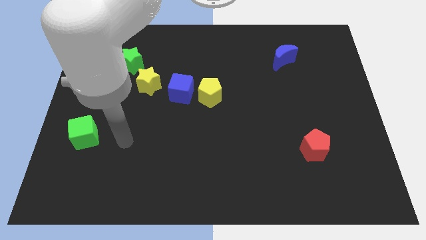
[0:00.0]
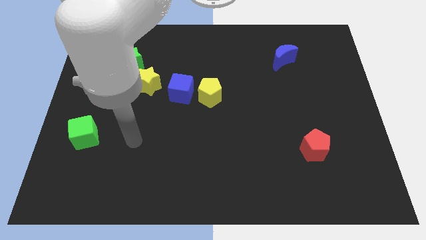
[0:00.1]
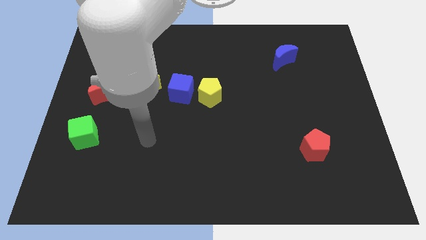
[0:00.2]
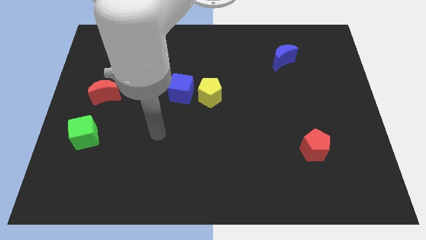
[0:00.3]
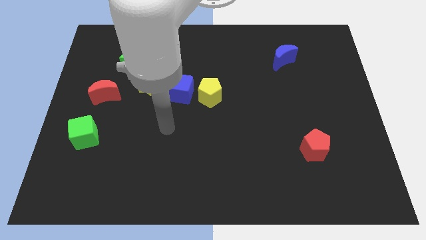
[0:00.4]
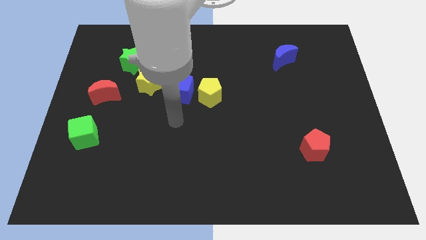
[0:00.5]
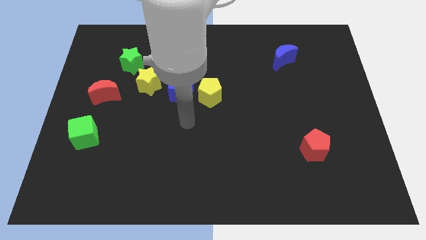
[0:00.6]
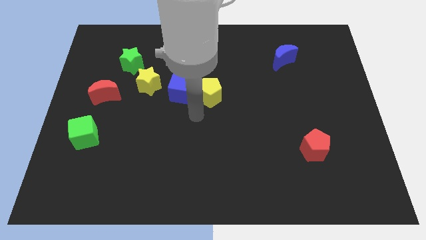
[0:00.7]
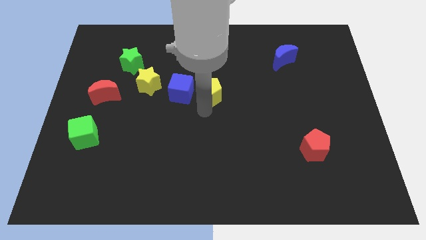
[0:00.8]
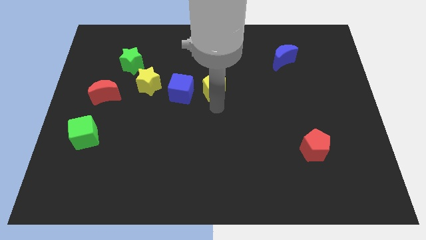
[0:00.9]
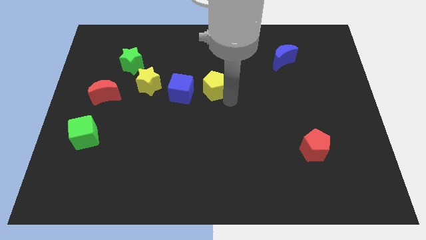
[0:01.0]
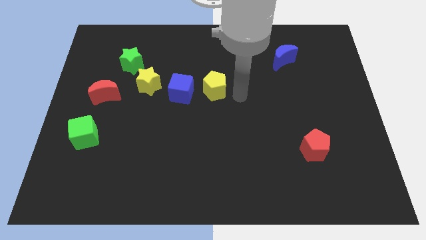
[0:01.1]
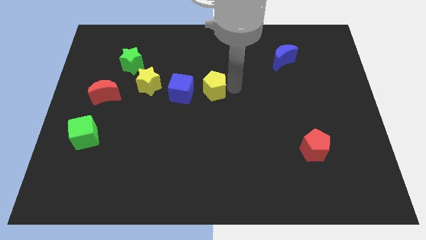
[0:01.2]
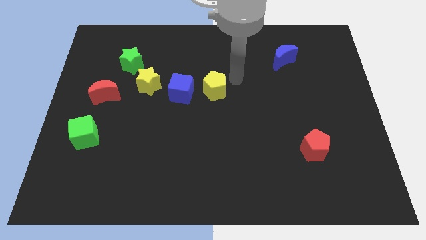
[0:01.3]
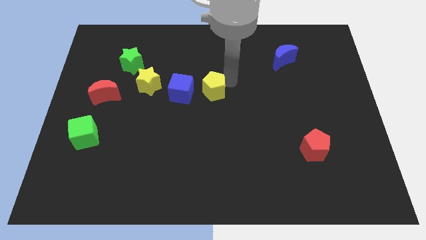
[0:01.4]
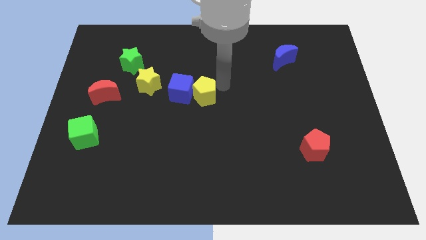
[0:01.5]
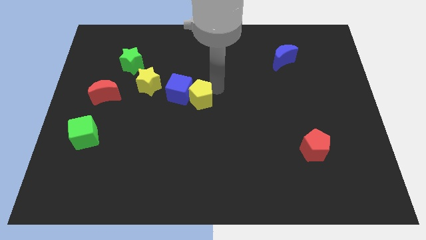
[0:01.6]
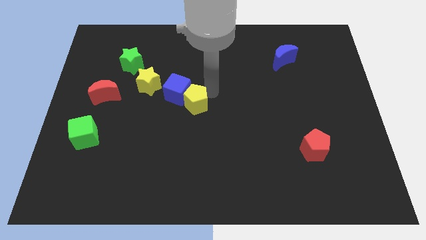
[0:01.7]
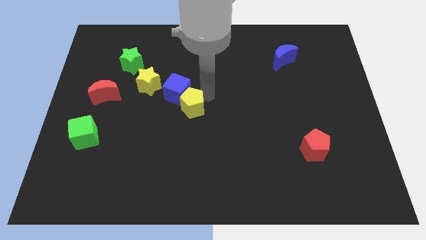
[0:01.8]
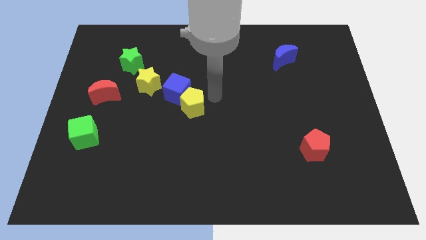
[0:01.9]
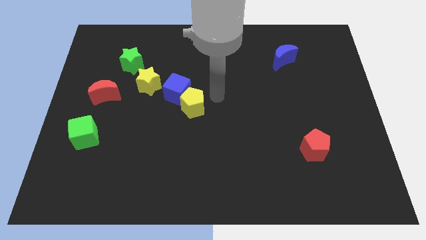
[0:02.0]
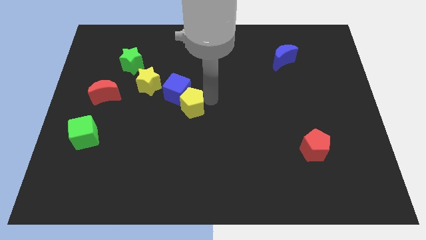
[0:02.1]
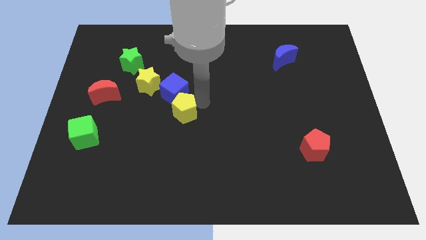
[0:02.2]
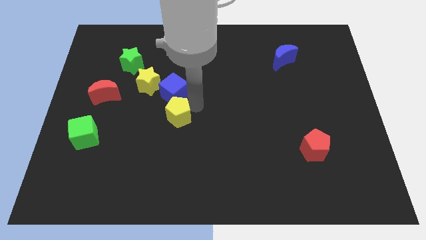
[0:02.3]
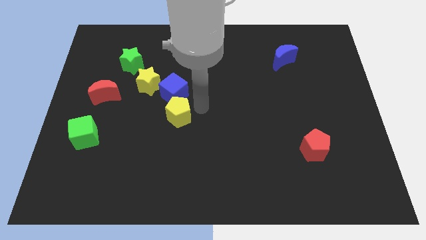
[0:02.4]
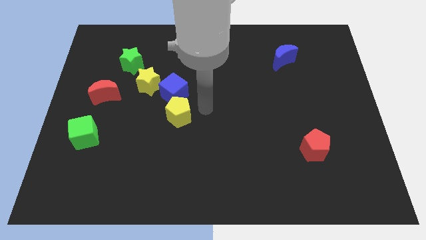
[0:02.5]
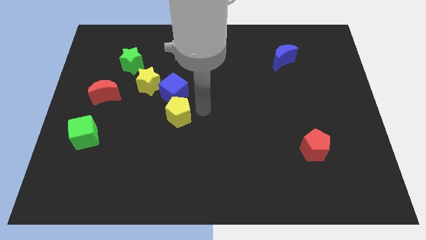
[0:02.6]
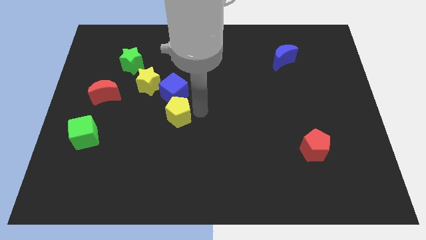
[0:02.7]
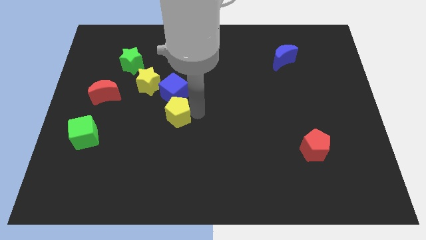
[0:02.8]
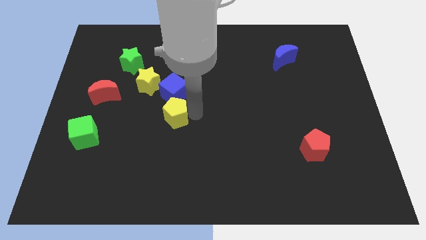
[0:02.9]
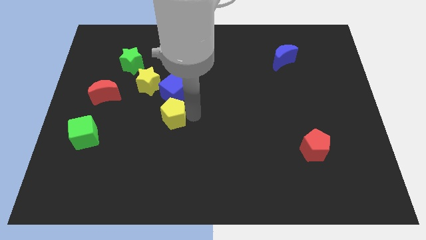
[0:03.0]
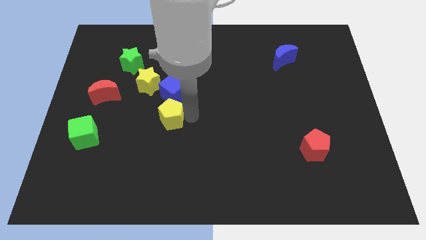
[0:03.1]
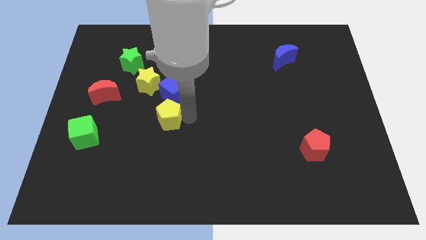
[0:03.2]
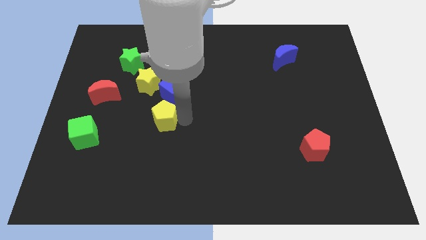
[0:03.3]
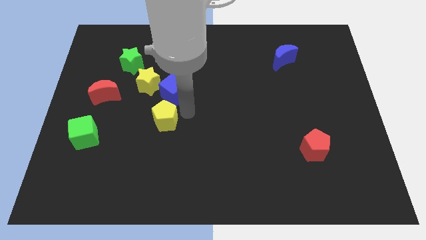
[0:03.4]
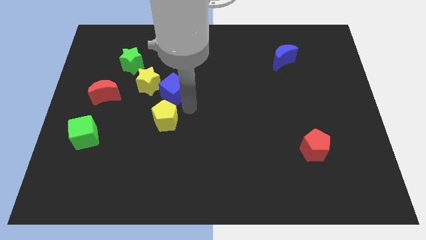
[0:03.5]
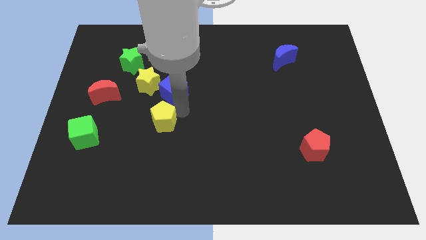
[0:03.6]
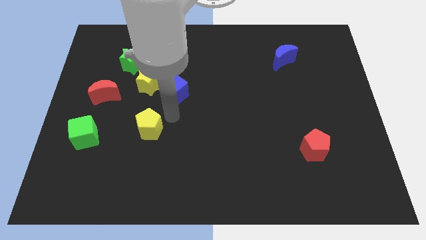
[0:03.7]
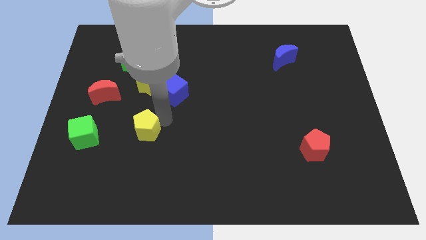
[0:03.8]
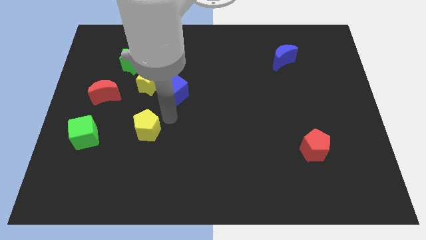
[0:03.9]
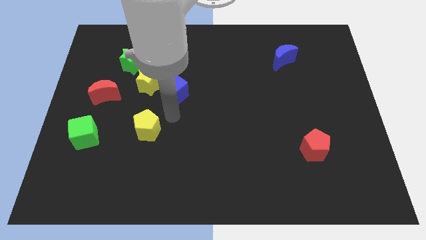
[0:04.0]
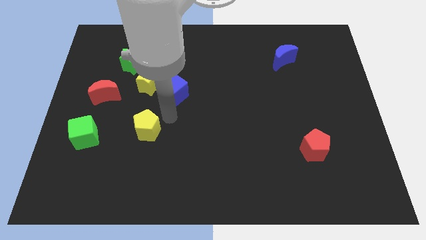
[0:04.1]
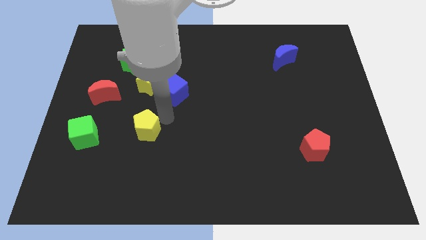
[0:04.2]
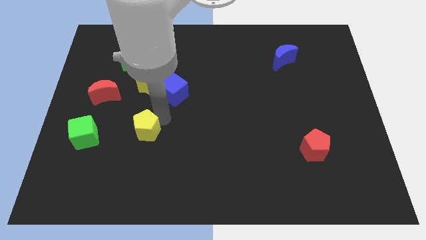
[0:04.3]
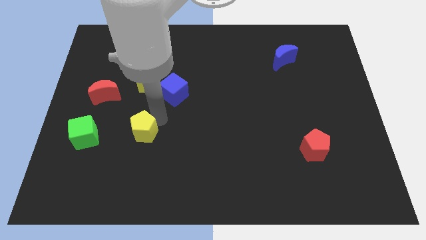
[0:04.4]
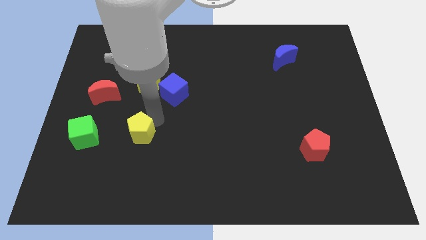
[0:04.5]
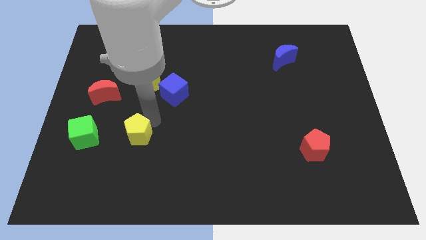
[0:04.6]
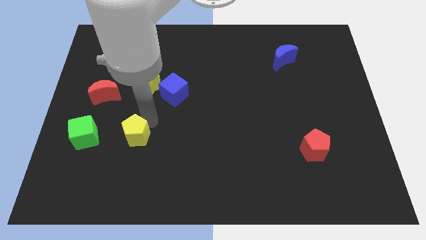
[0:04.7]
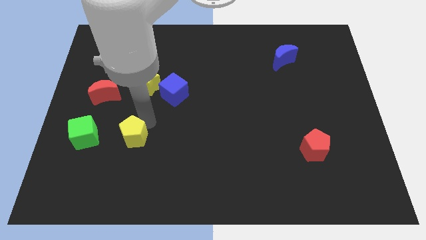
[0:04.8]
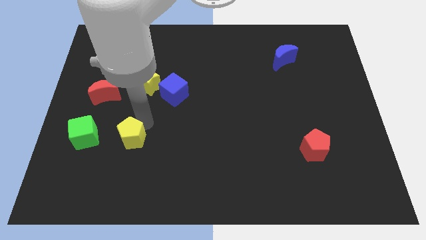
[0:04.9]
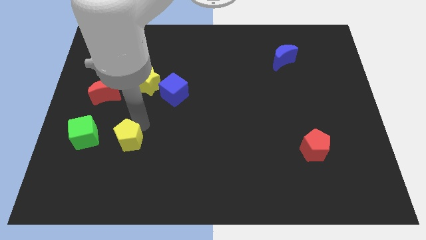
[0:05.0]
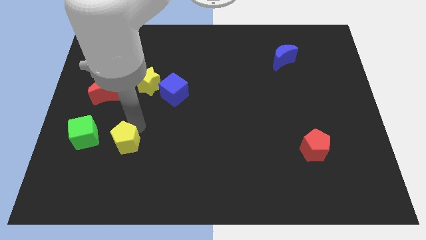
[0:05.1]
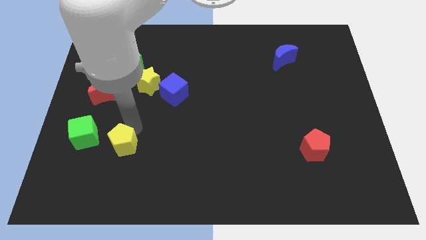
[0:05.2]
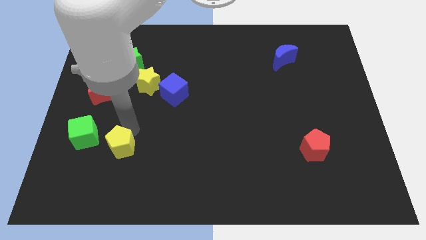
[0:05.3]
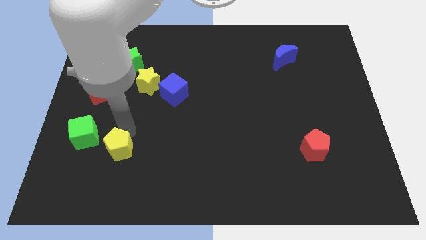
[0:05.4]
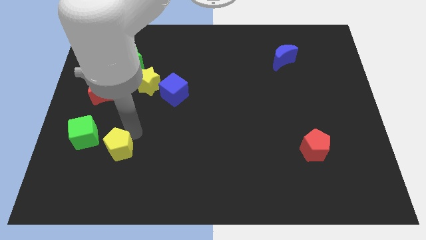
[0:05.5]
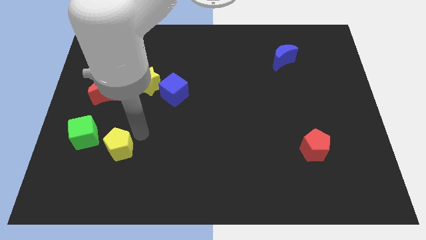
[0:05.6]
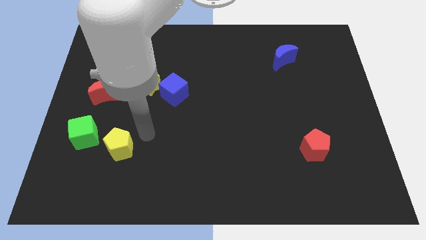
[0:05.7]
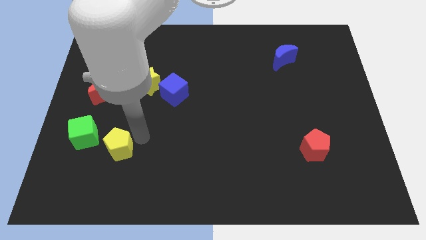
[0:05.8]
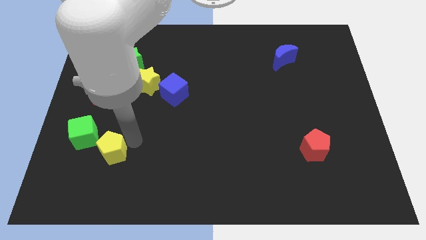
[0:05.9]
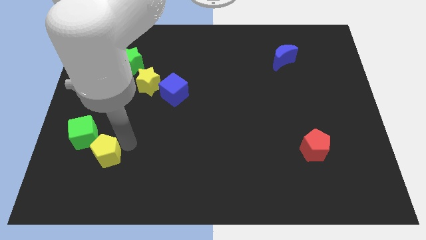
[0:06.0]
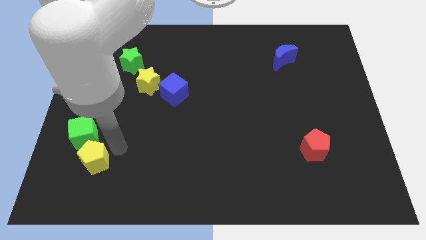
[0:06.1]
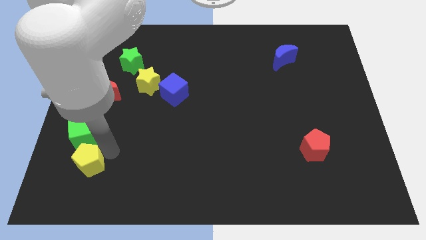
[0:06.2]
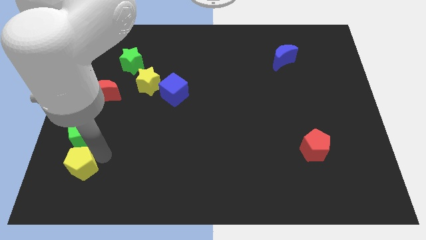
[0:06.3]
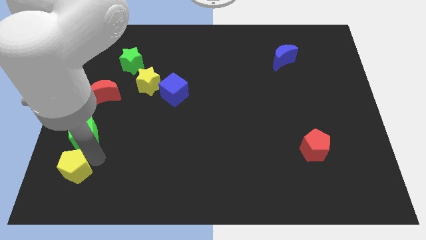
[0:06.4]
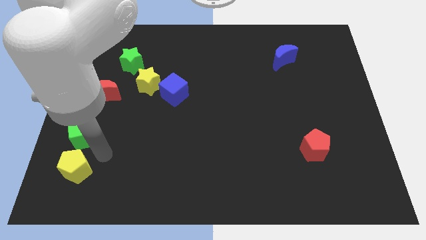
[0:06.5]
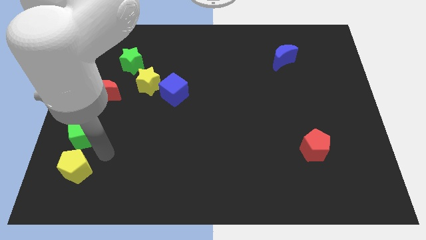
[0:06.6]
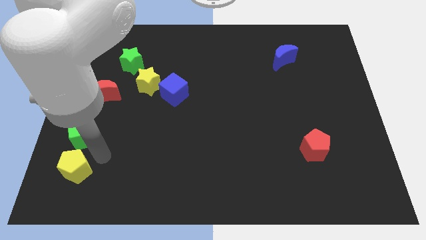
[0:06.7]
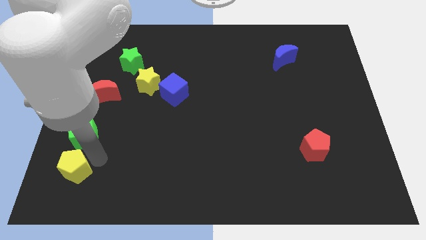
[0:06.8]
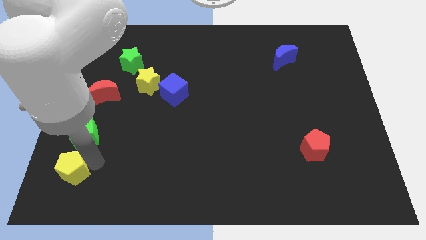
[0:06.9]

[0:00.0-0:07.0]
move the yellow pentagon to the bottom left of the board
